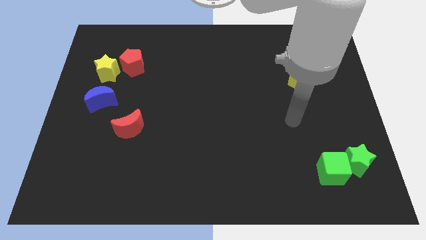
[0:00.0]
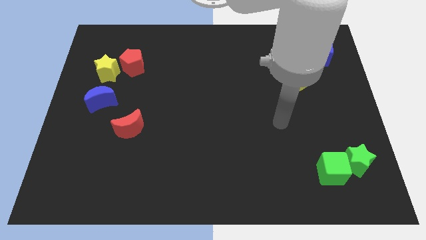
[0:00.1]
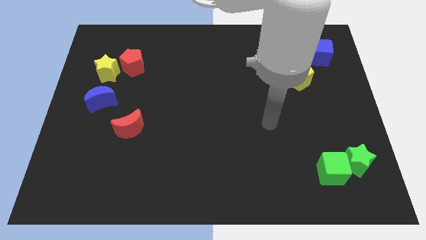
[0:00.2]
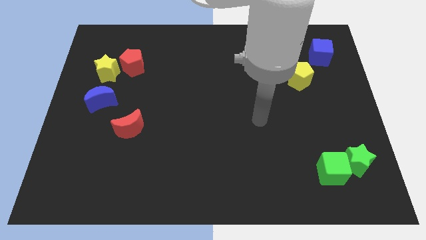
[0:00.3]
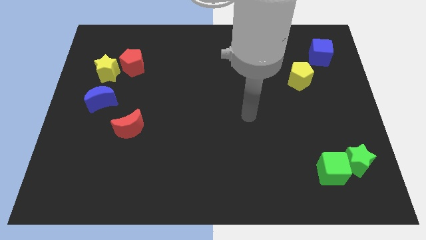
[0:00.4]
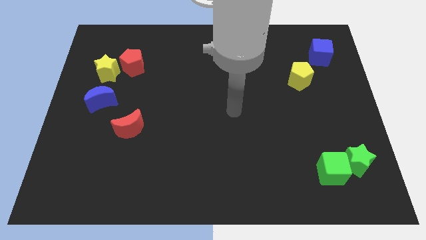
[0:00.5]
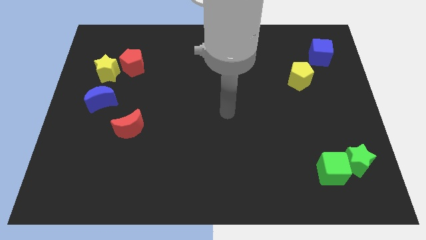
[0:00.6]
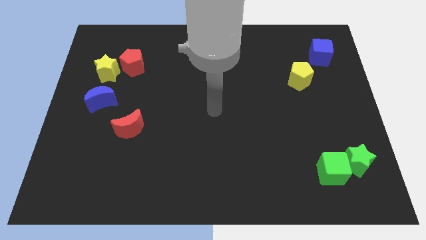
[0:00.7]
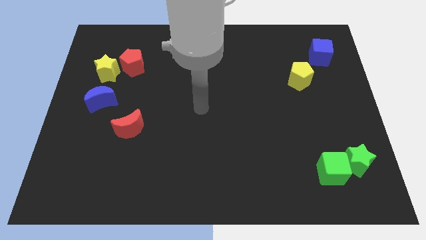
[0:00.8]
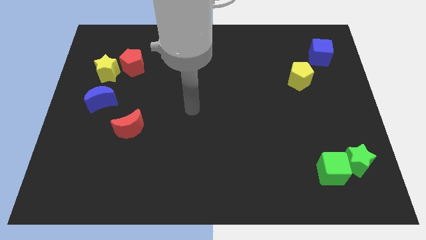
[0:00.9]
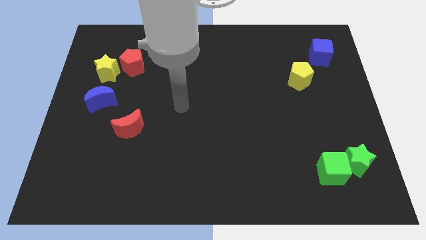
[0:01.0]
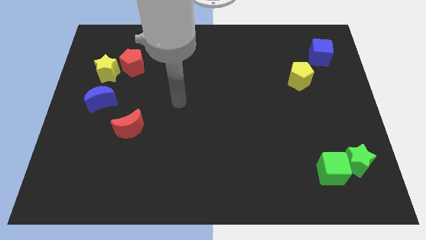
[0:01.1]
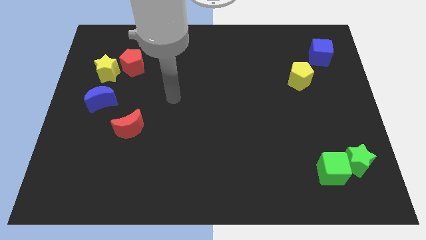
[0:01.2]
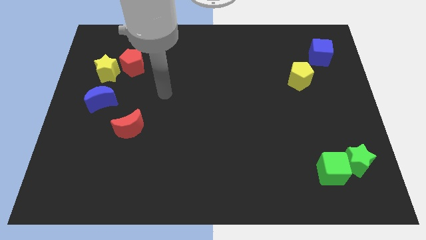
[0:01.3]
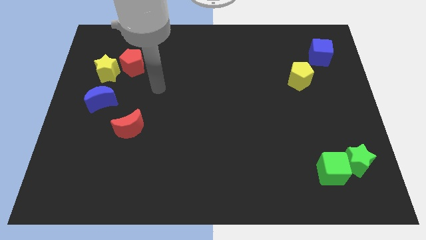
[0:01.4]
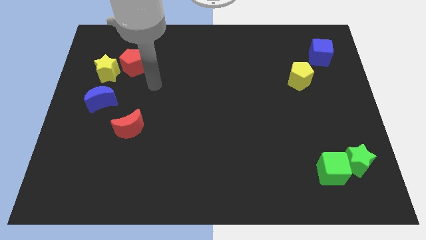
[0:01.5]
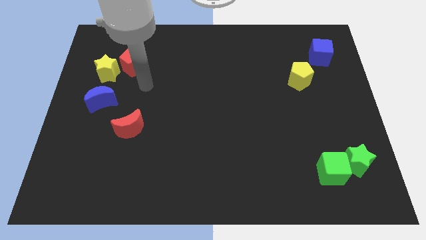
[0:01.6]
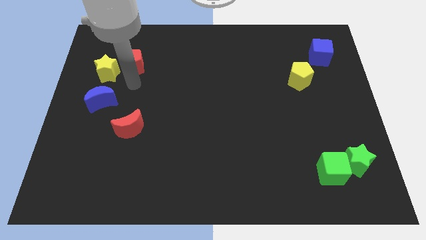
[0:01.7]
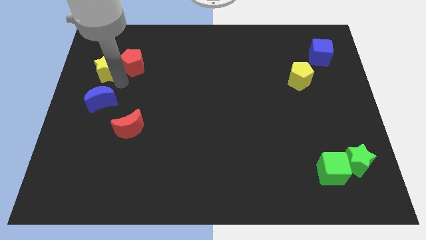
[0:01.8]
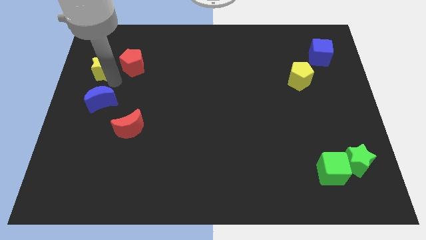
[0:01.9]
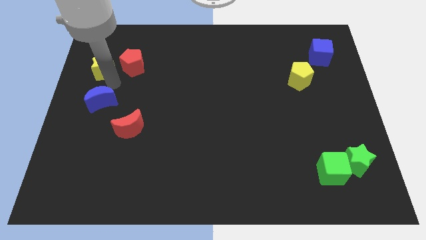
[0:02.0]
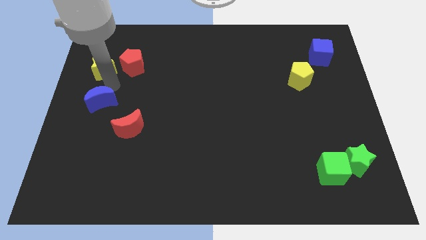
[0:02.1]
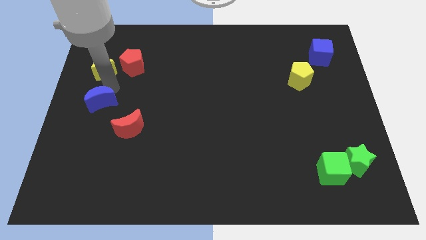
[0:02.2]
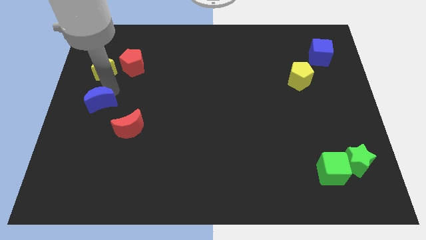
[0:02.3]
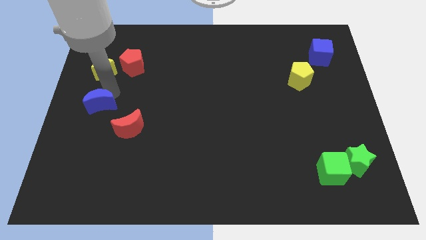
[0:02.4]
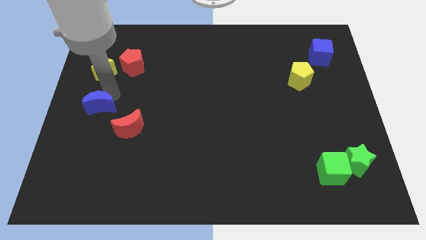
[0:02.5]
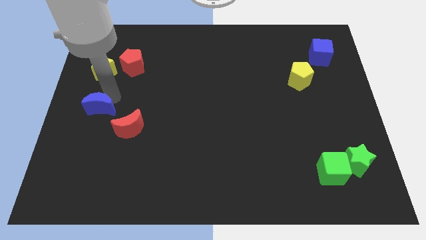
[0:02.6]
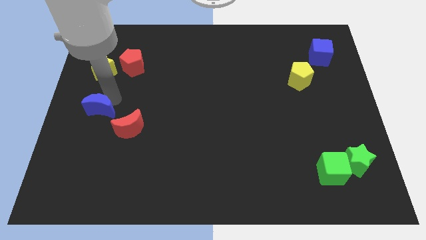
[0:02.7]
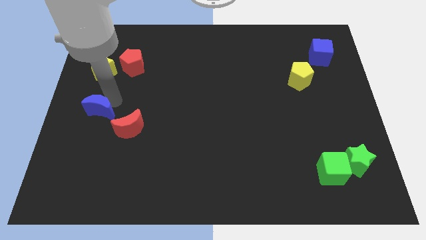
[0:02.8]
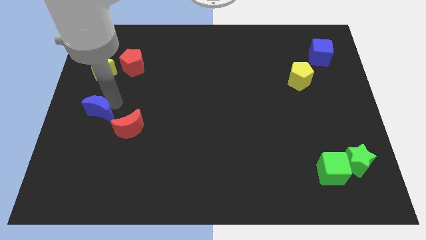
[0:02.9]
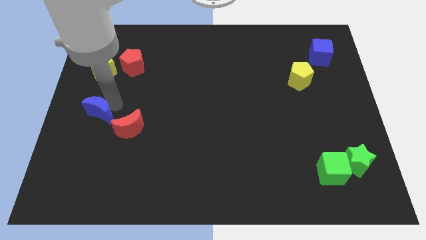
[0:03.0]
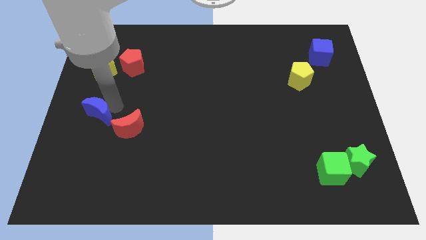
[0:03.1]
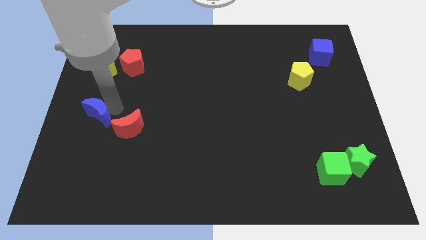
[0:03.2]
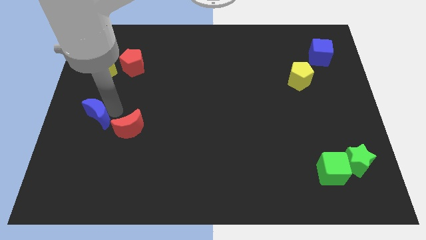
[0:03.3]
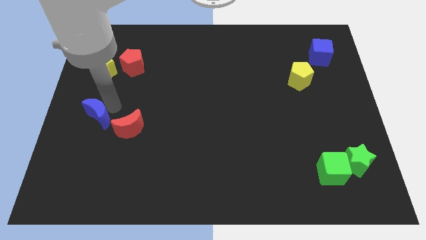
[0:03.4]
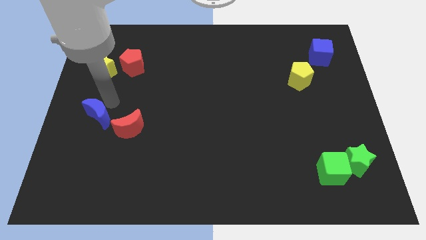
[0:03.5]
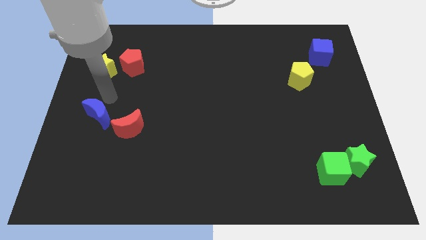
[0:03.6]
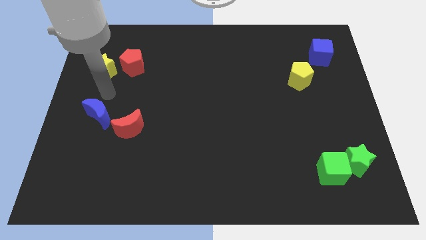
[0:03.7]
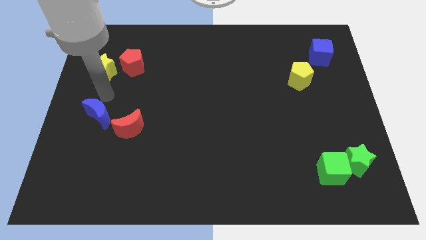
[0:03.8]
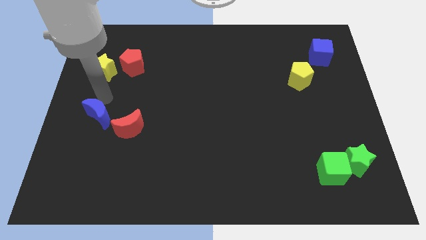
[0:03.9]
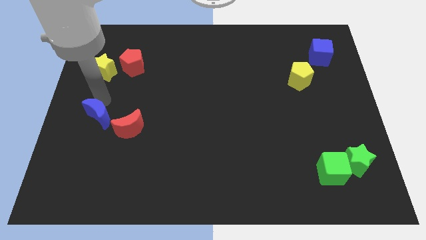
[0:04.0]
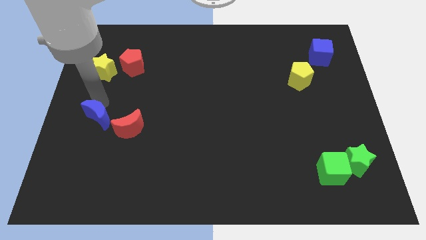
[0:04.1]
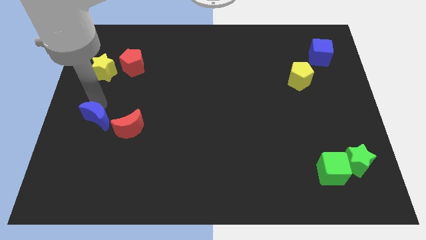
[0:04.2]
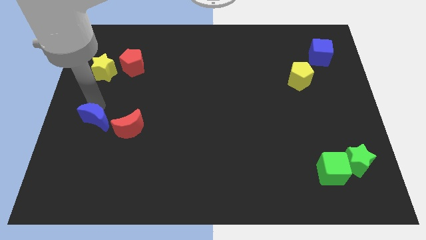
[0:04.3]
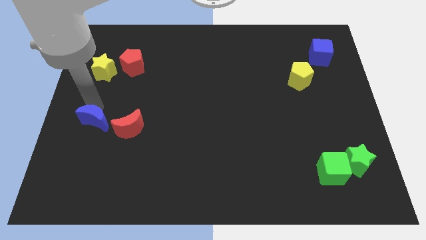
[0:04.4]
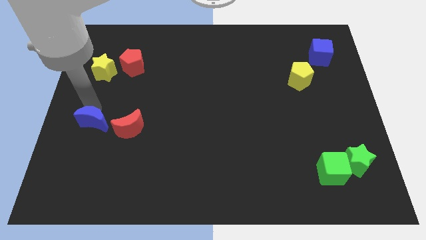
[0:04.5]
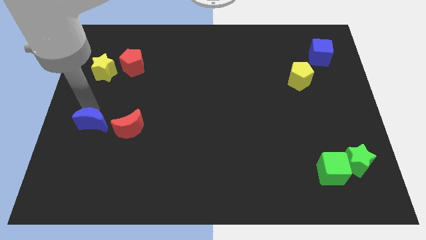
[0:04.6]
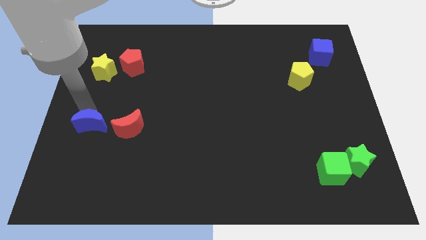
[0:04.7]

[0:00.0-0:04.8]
push the blue moon somewhat down

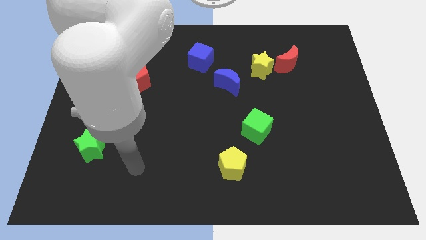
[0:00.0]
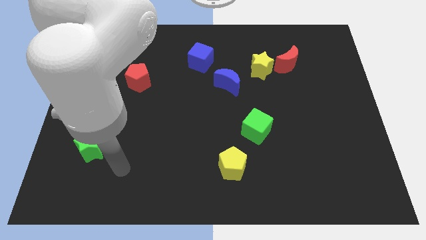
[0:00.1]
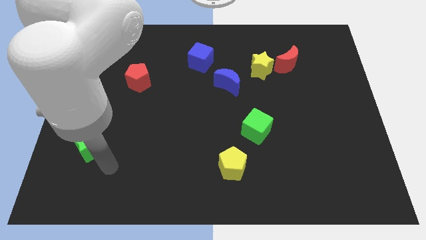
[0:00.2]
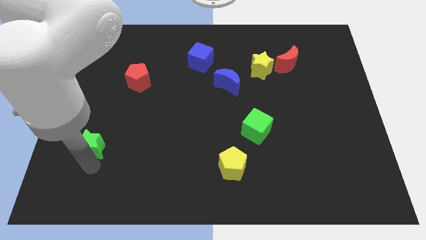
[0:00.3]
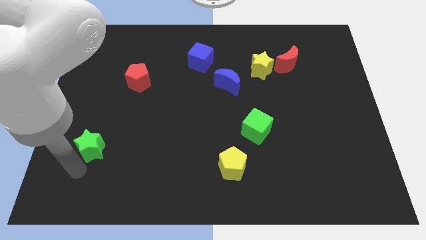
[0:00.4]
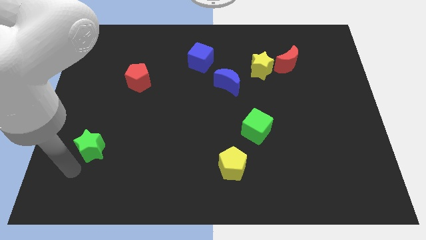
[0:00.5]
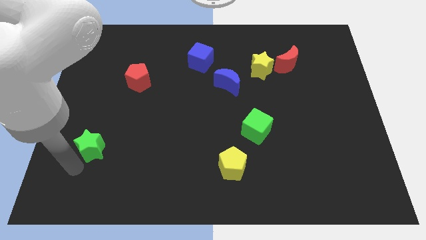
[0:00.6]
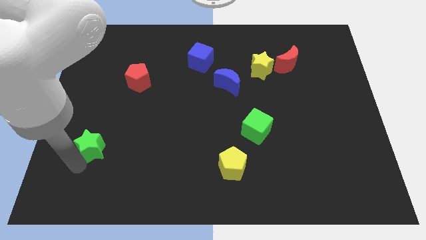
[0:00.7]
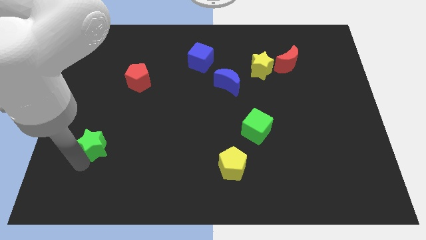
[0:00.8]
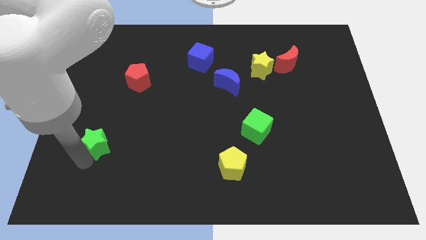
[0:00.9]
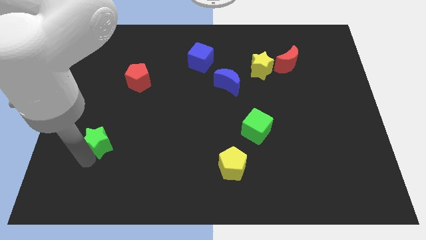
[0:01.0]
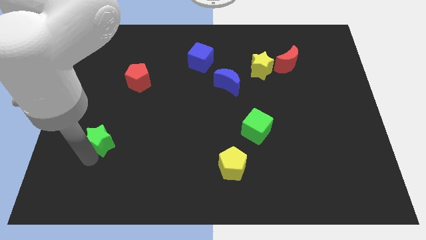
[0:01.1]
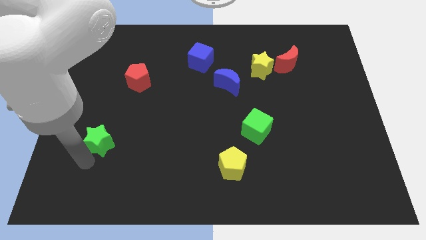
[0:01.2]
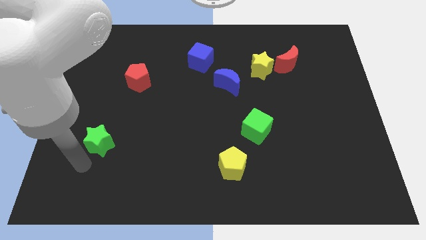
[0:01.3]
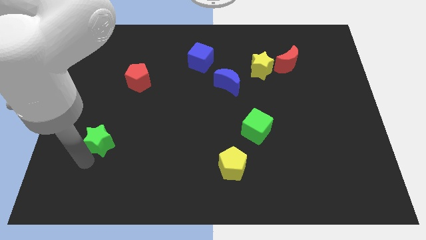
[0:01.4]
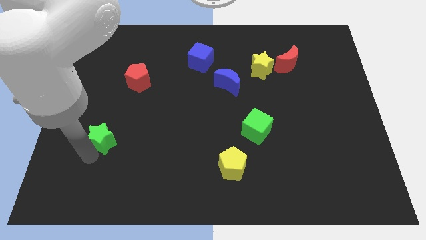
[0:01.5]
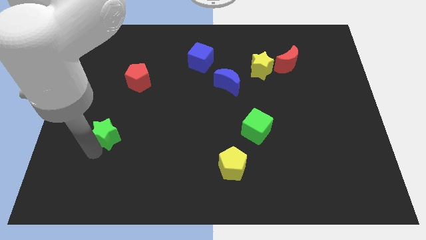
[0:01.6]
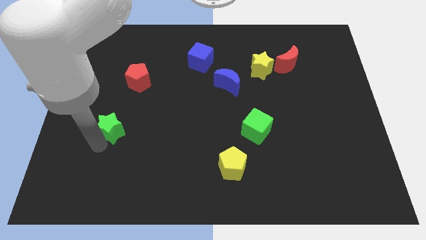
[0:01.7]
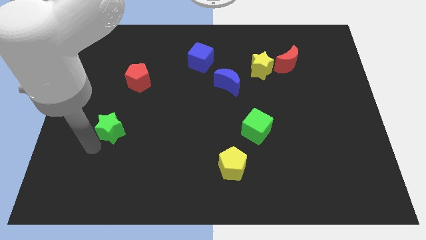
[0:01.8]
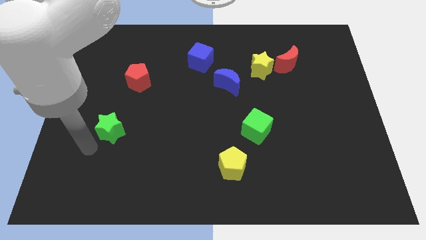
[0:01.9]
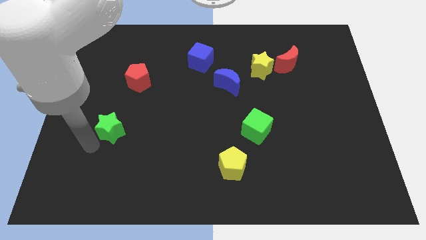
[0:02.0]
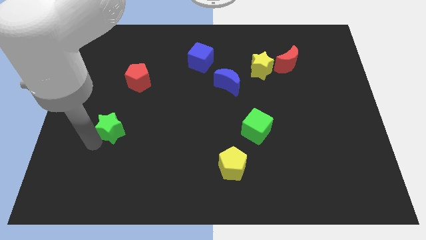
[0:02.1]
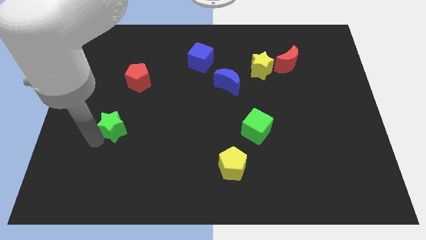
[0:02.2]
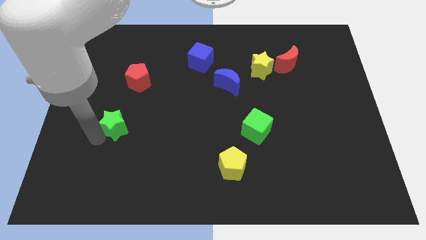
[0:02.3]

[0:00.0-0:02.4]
move the green star slightly diagonally upwards and right

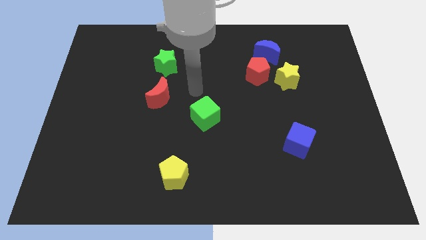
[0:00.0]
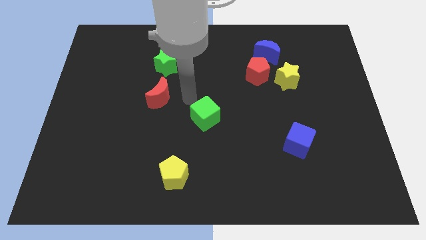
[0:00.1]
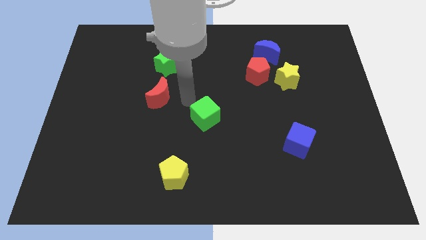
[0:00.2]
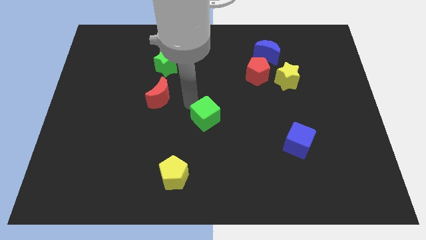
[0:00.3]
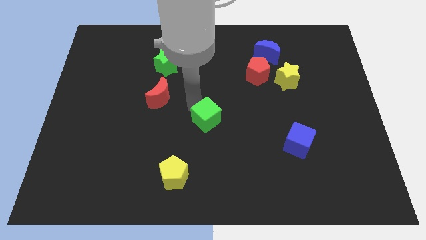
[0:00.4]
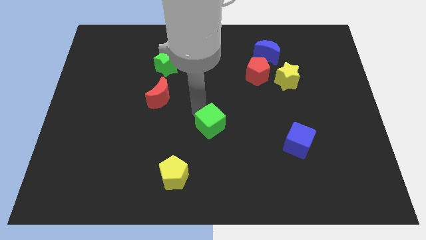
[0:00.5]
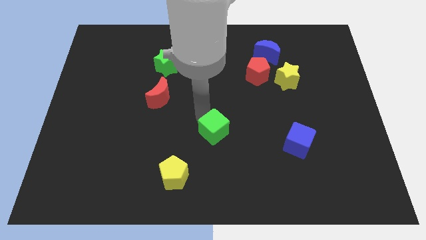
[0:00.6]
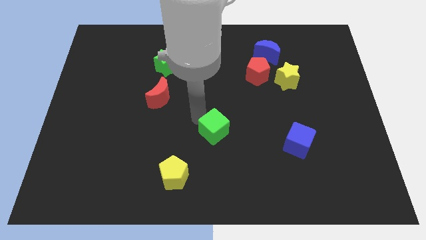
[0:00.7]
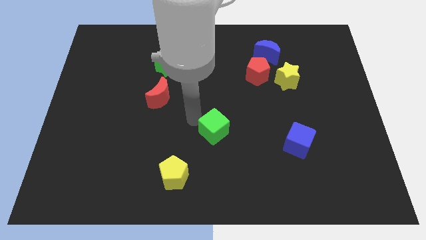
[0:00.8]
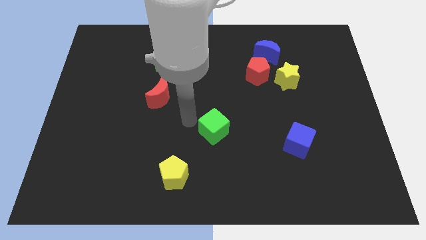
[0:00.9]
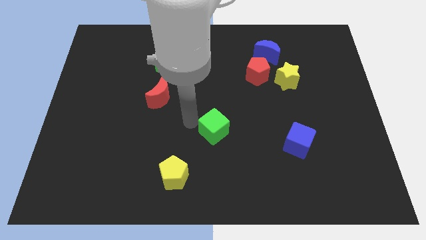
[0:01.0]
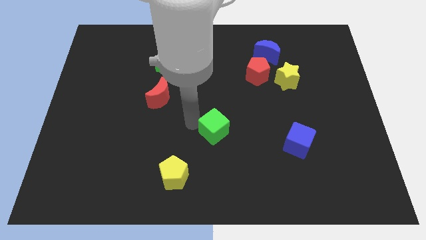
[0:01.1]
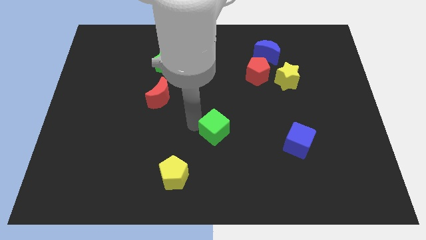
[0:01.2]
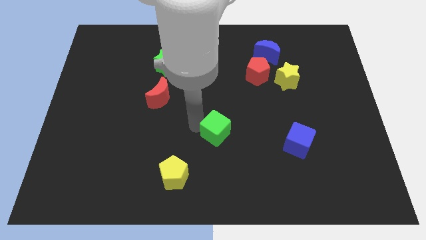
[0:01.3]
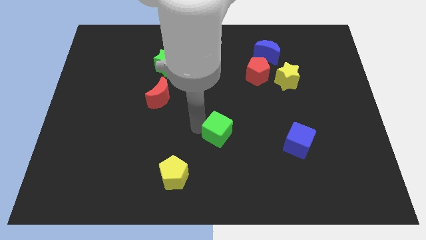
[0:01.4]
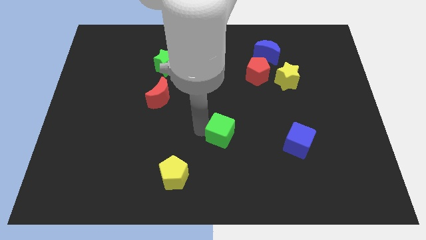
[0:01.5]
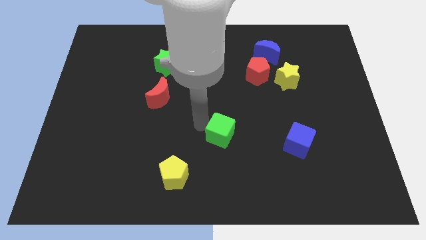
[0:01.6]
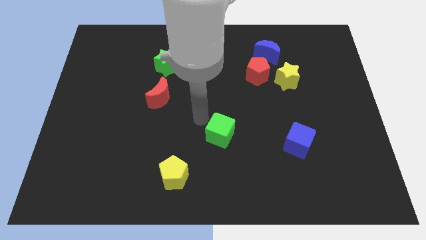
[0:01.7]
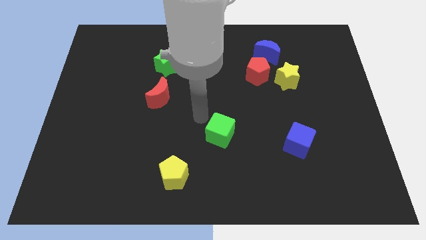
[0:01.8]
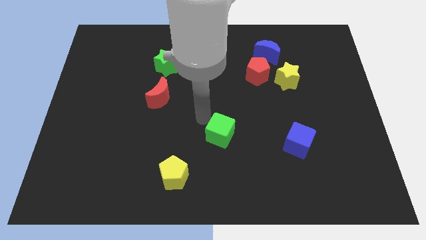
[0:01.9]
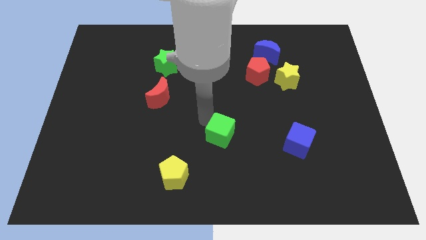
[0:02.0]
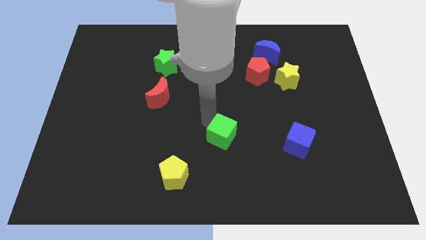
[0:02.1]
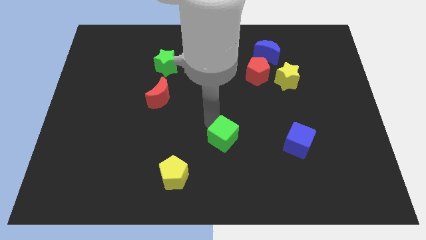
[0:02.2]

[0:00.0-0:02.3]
slightly slide the green cube diagonally down and right
